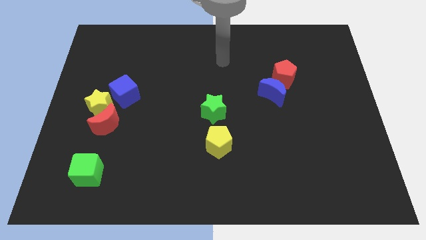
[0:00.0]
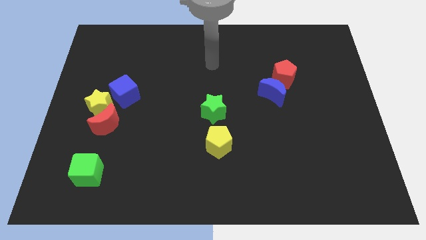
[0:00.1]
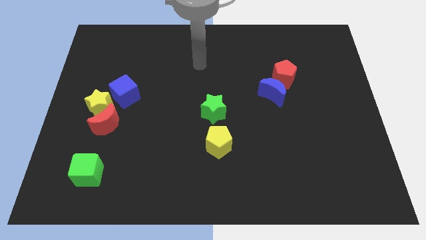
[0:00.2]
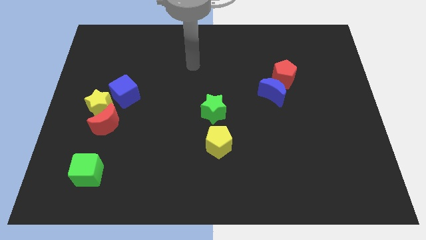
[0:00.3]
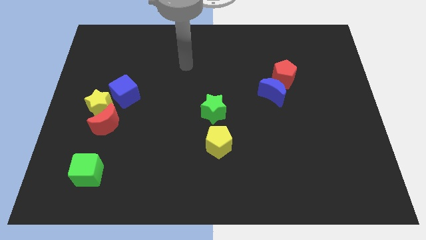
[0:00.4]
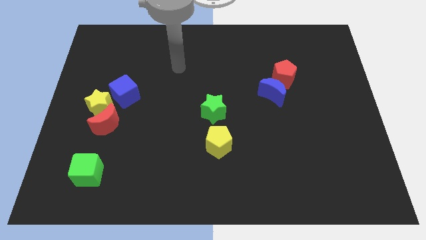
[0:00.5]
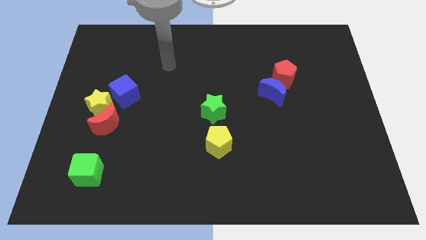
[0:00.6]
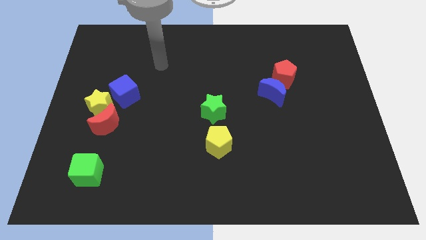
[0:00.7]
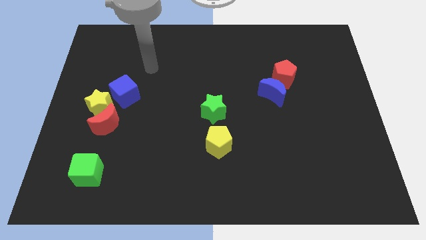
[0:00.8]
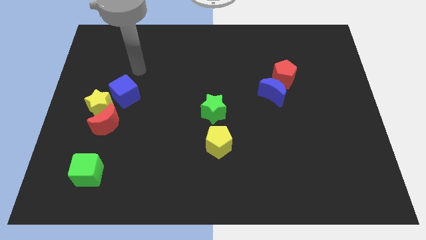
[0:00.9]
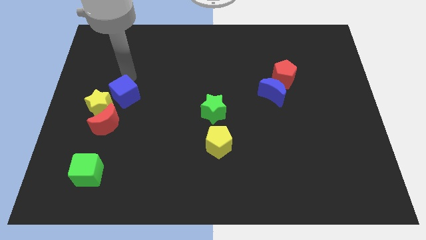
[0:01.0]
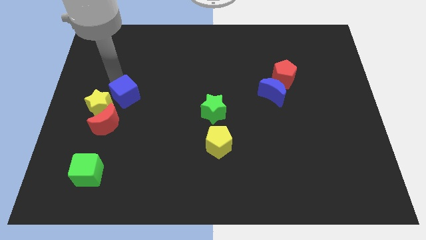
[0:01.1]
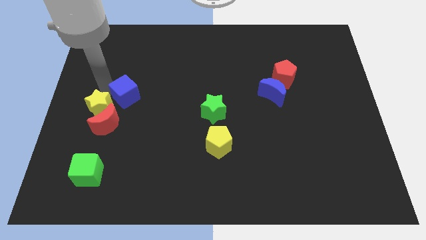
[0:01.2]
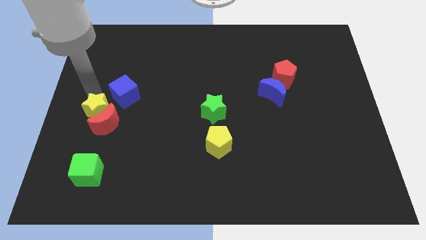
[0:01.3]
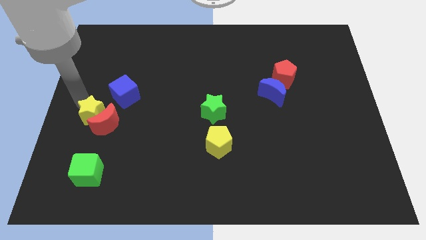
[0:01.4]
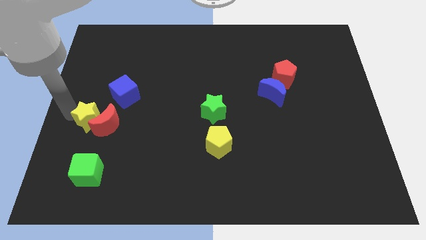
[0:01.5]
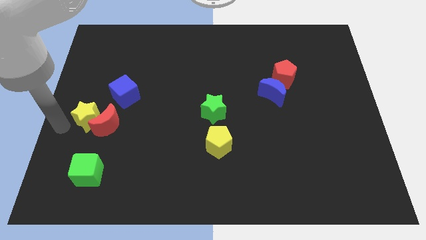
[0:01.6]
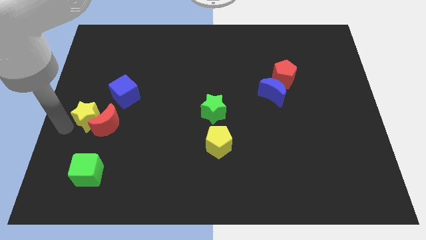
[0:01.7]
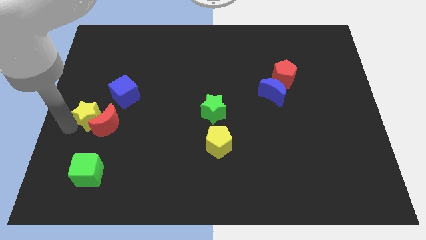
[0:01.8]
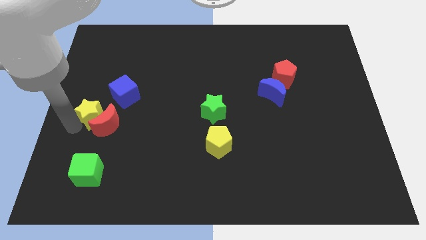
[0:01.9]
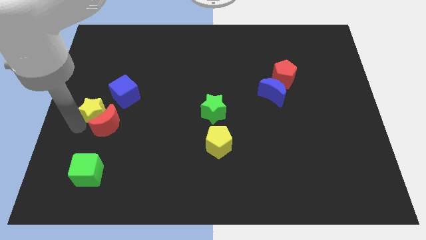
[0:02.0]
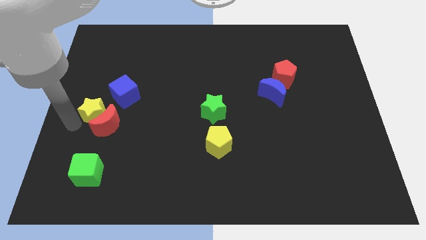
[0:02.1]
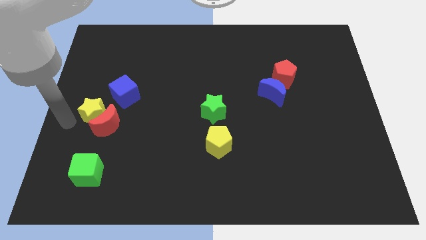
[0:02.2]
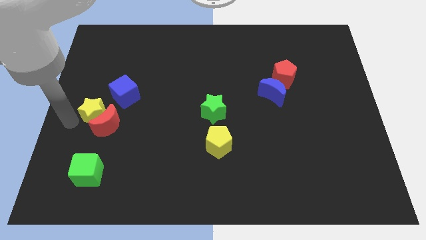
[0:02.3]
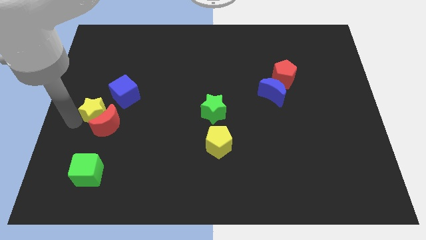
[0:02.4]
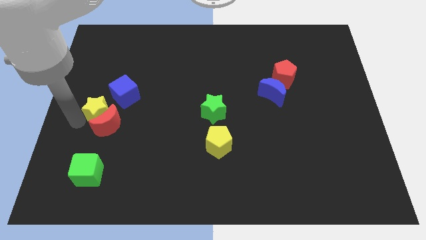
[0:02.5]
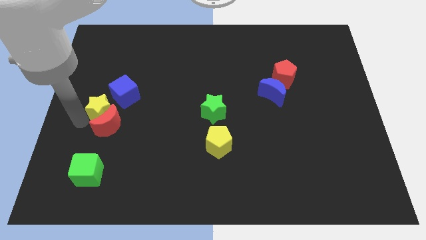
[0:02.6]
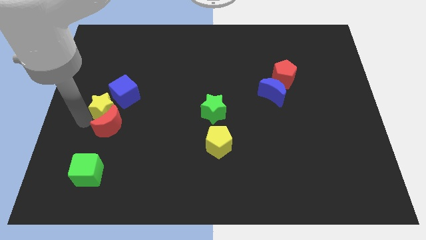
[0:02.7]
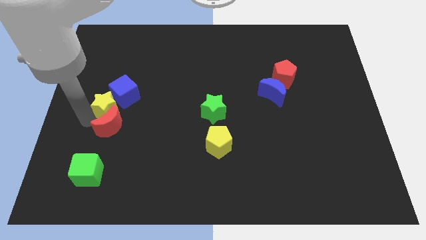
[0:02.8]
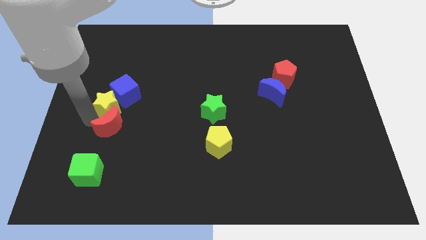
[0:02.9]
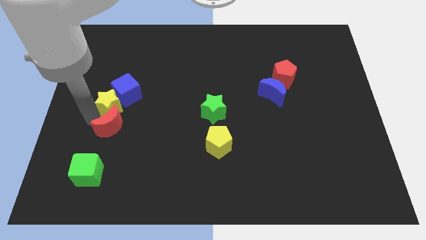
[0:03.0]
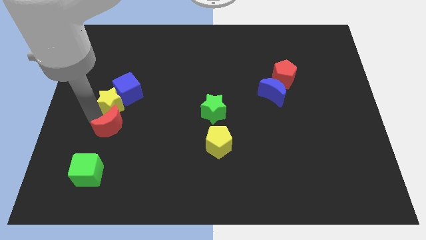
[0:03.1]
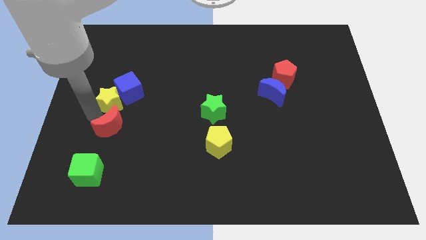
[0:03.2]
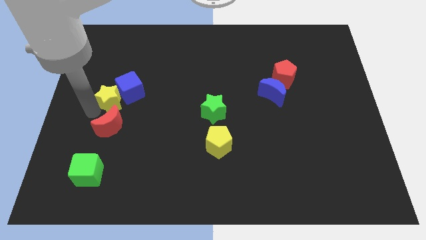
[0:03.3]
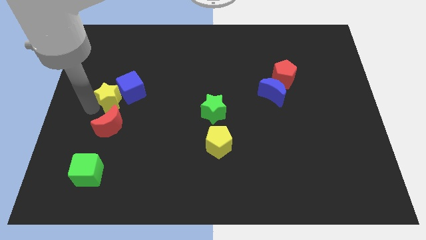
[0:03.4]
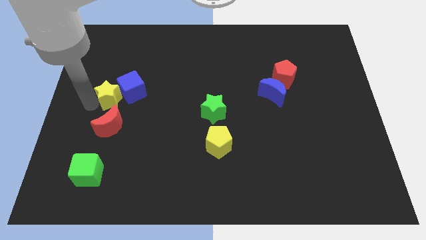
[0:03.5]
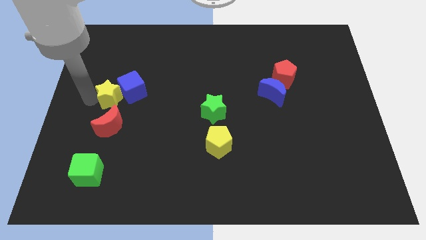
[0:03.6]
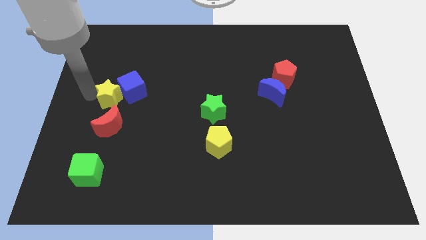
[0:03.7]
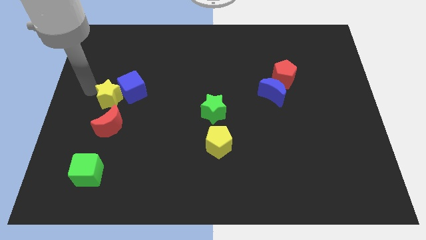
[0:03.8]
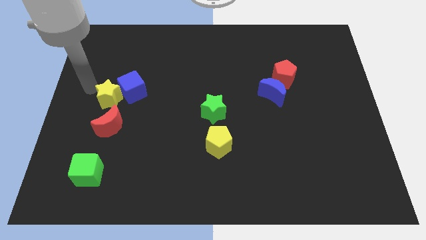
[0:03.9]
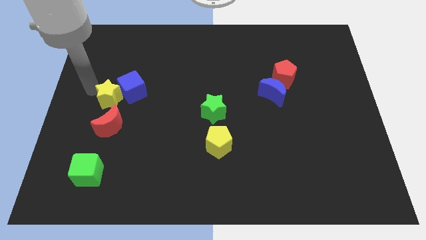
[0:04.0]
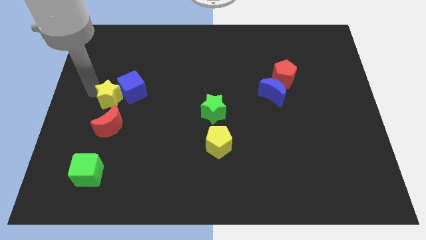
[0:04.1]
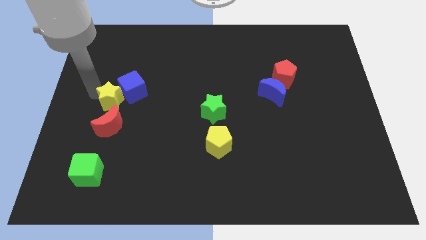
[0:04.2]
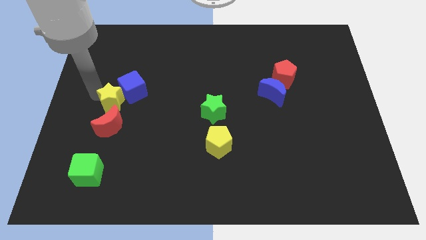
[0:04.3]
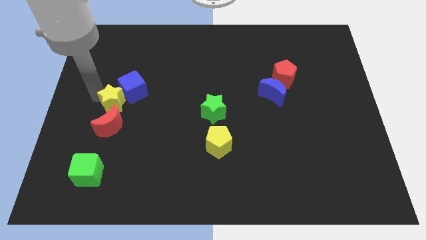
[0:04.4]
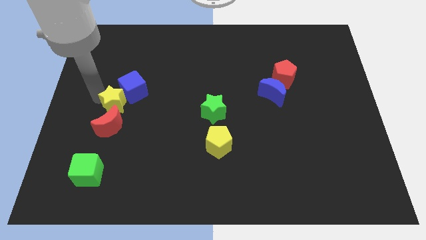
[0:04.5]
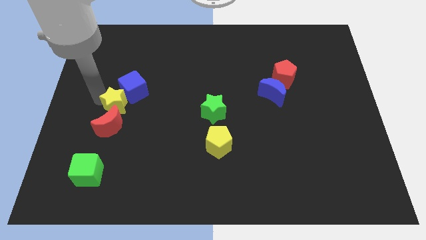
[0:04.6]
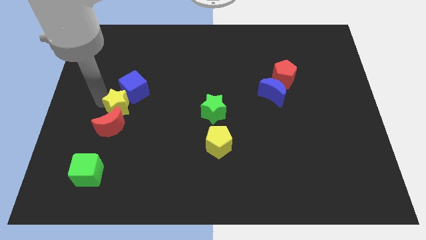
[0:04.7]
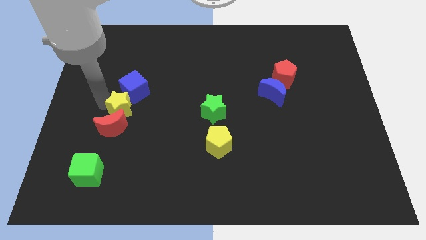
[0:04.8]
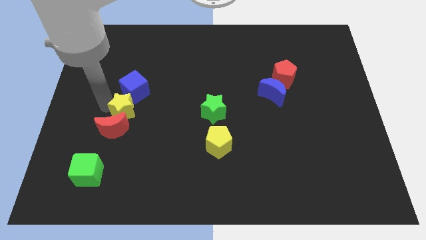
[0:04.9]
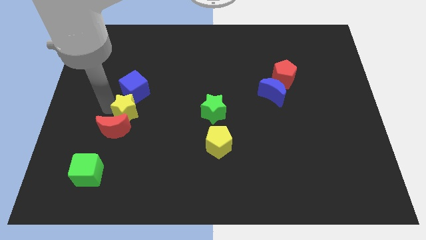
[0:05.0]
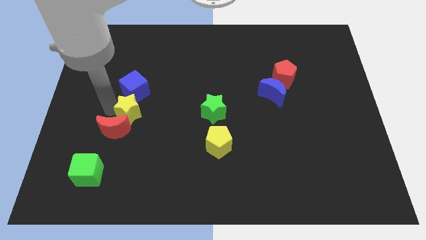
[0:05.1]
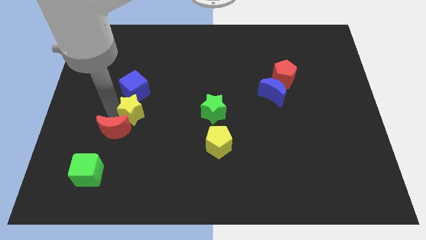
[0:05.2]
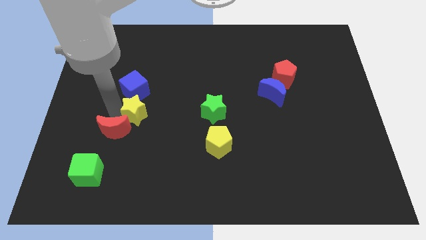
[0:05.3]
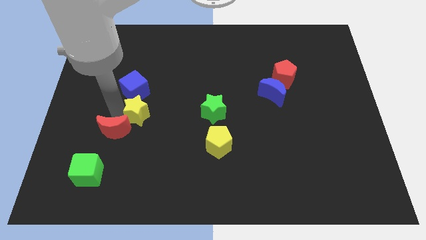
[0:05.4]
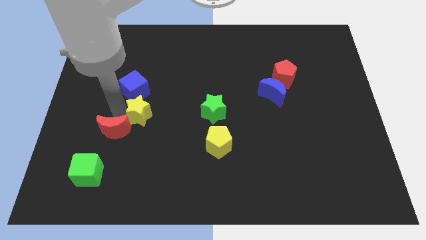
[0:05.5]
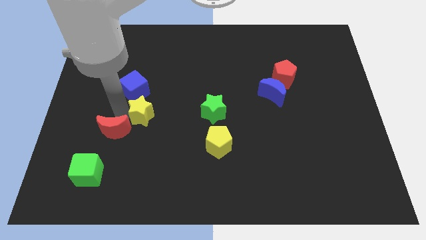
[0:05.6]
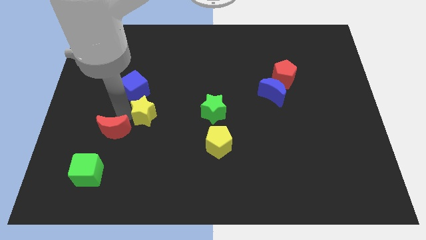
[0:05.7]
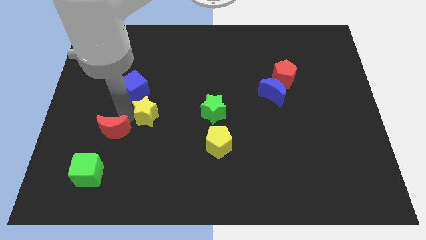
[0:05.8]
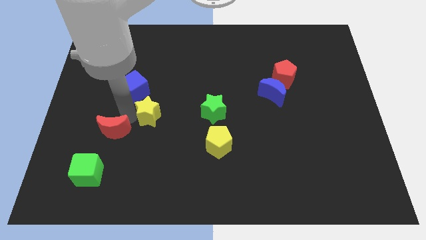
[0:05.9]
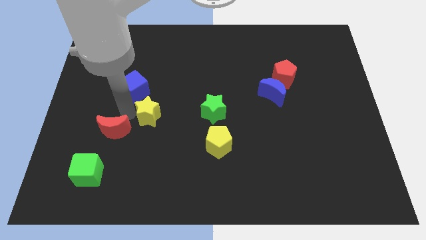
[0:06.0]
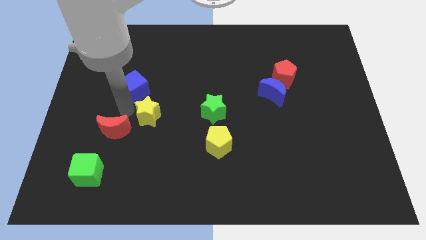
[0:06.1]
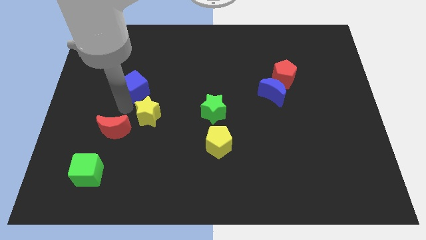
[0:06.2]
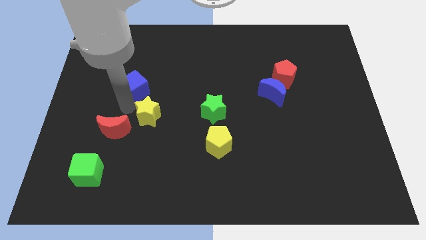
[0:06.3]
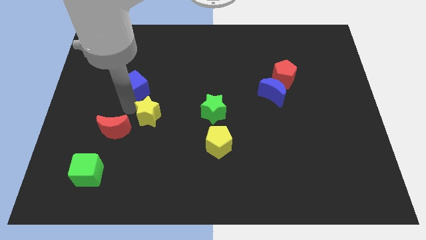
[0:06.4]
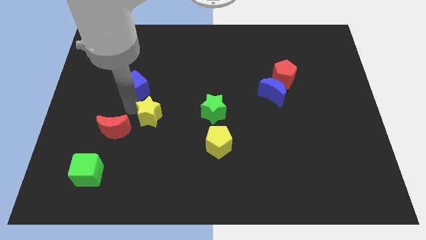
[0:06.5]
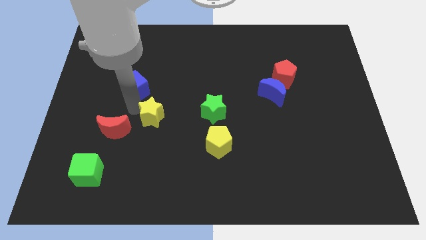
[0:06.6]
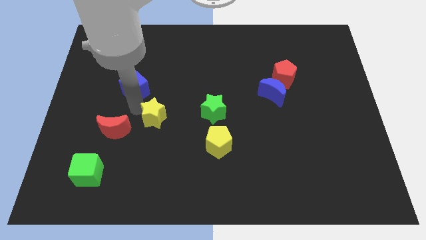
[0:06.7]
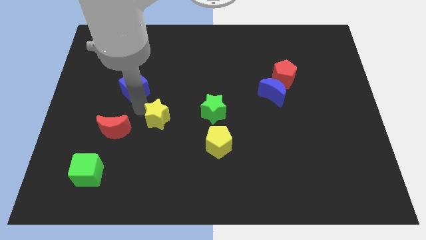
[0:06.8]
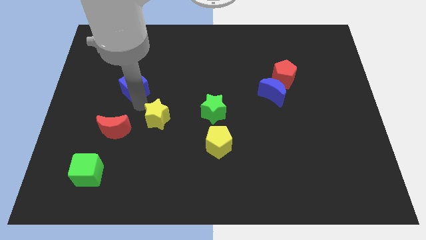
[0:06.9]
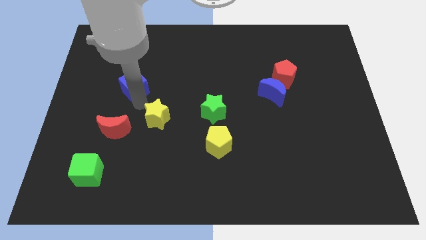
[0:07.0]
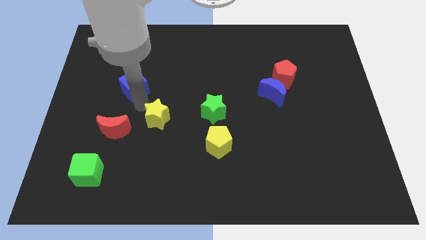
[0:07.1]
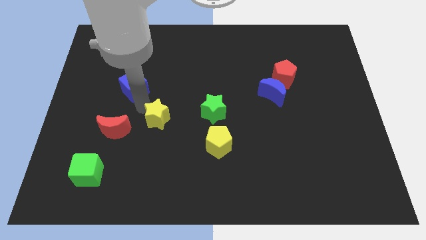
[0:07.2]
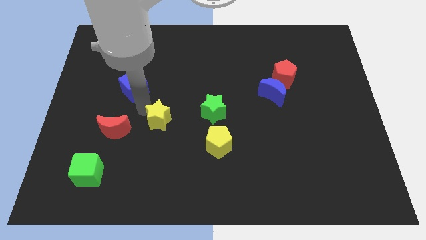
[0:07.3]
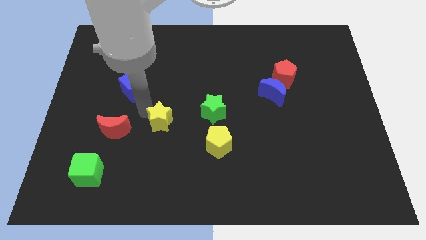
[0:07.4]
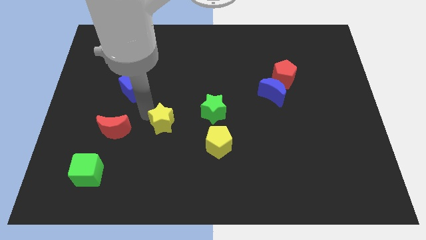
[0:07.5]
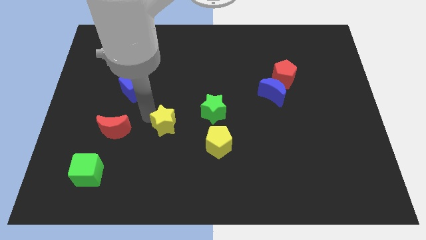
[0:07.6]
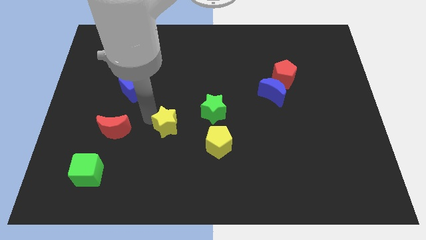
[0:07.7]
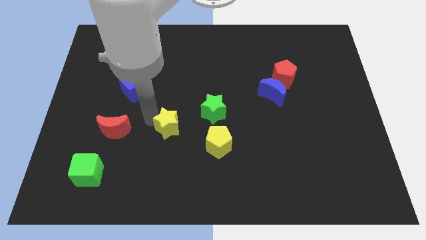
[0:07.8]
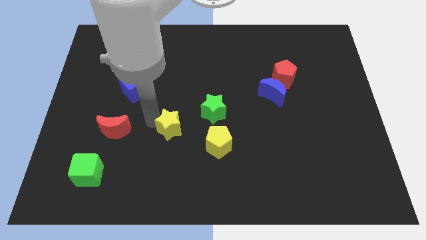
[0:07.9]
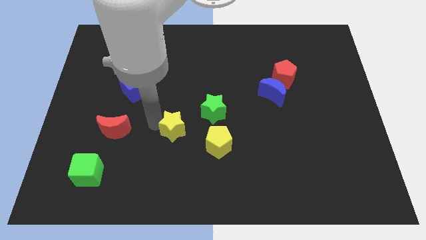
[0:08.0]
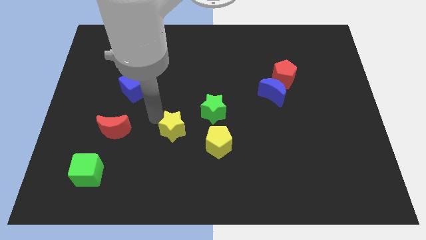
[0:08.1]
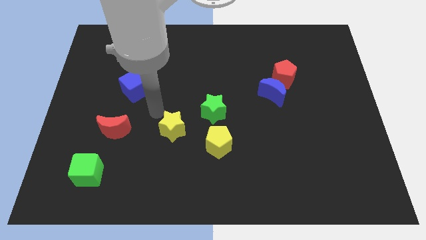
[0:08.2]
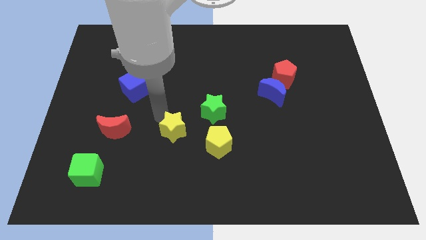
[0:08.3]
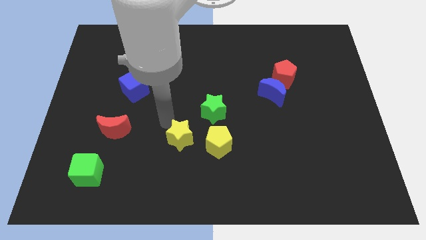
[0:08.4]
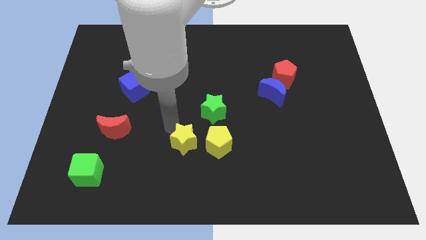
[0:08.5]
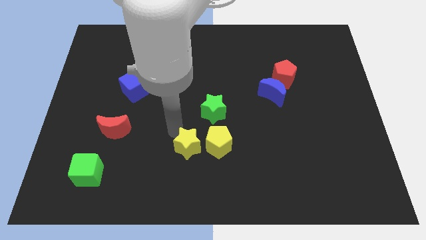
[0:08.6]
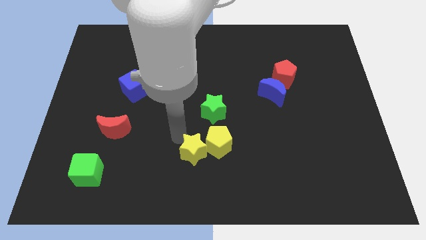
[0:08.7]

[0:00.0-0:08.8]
slide the yellow star to the bottom of the green star
